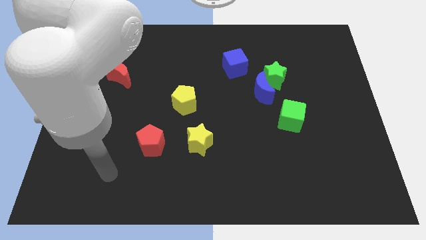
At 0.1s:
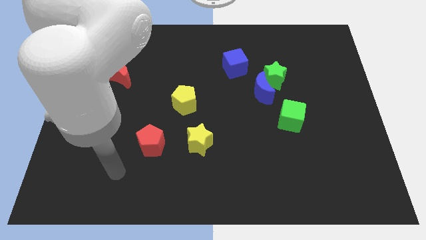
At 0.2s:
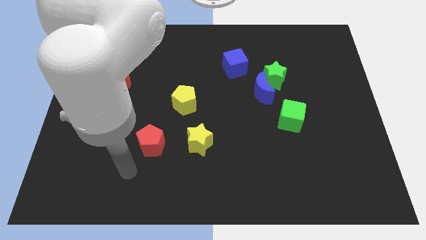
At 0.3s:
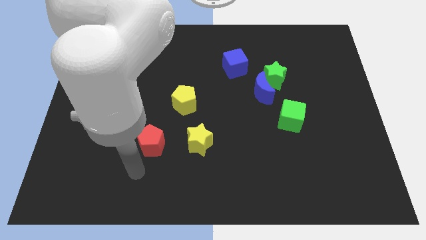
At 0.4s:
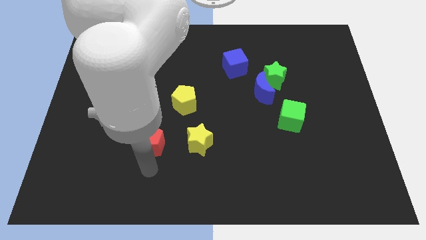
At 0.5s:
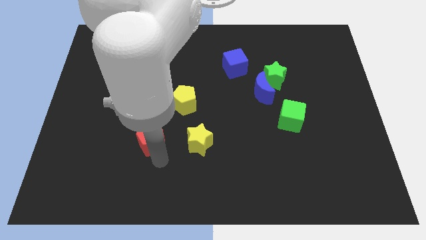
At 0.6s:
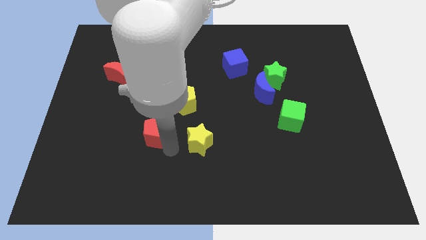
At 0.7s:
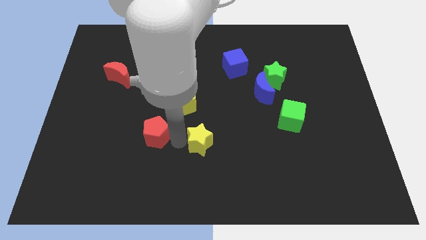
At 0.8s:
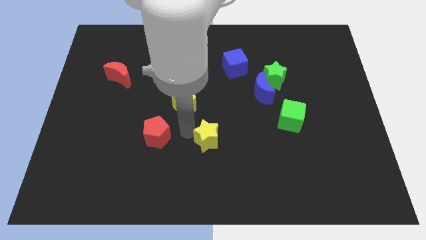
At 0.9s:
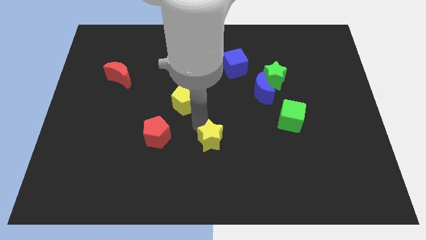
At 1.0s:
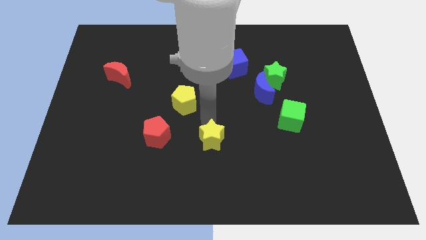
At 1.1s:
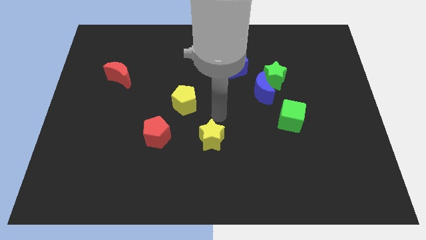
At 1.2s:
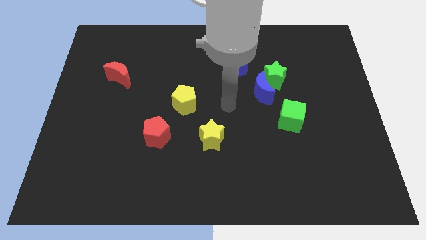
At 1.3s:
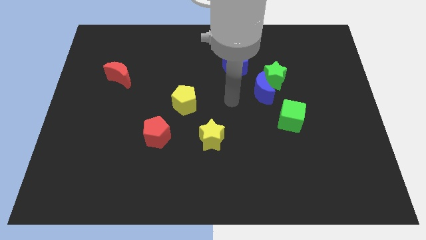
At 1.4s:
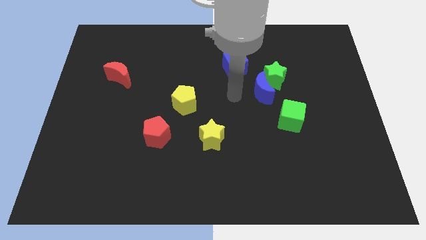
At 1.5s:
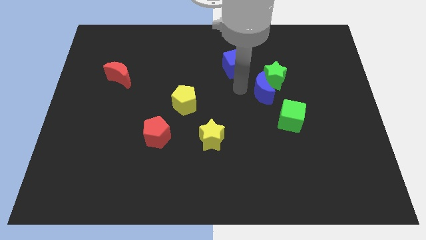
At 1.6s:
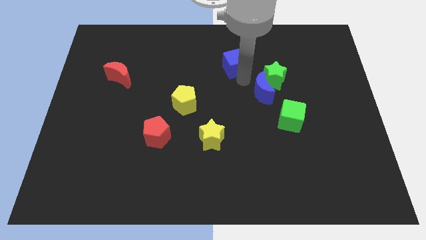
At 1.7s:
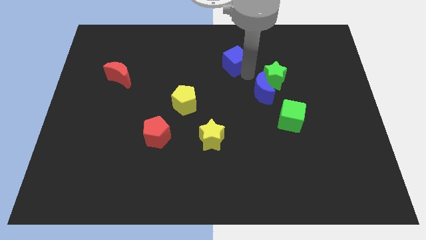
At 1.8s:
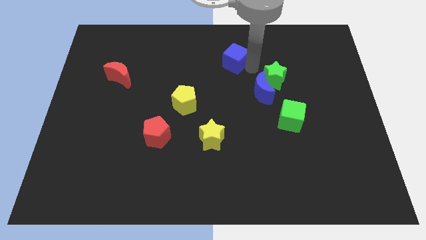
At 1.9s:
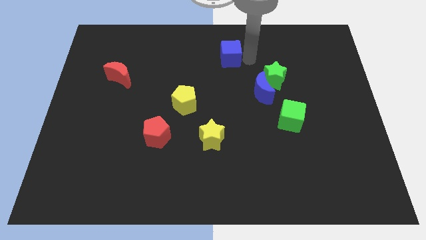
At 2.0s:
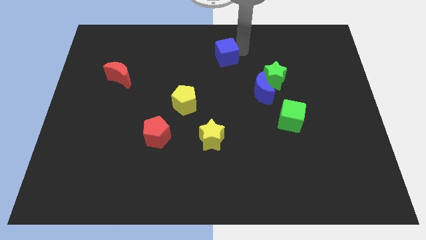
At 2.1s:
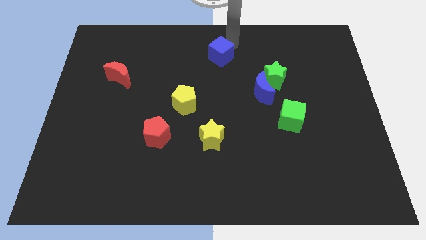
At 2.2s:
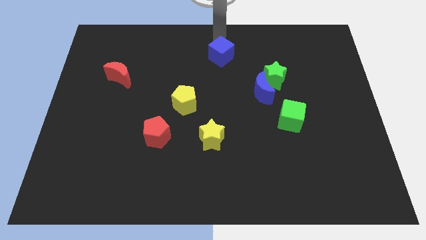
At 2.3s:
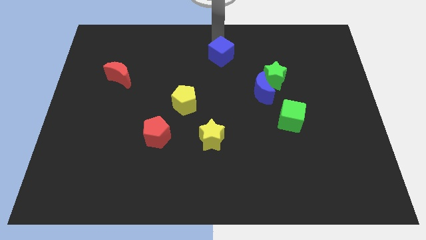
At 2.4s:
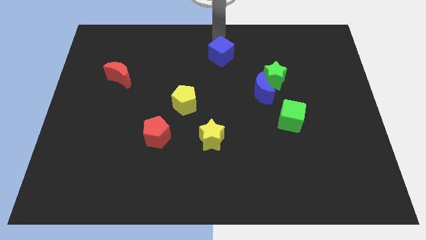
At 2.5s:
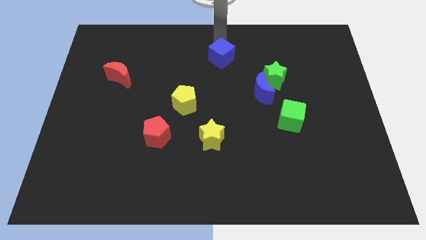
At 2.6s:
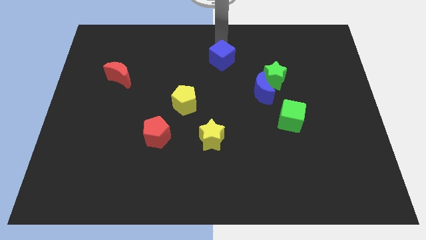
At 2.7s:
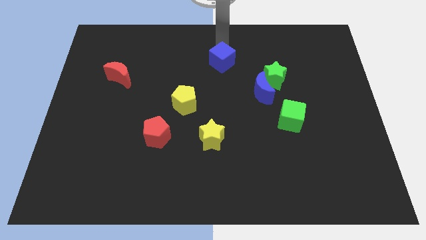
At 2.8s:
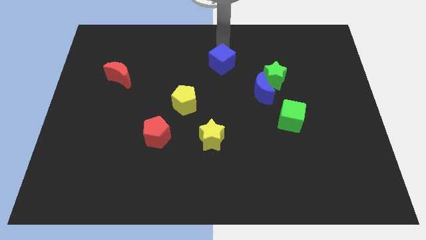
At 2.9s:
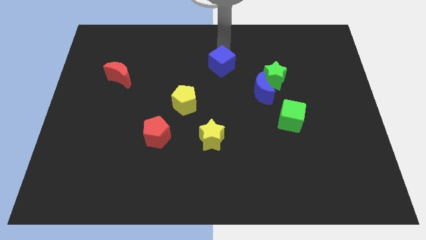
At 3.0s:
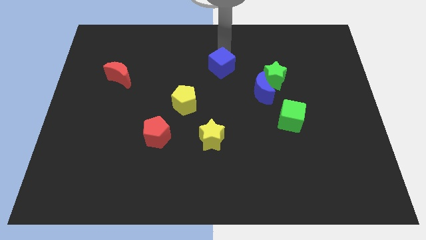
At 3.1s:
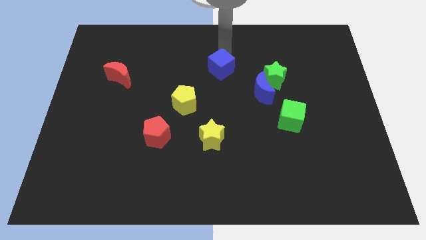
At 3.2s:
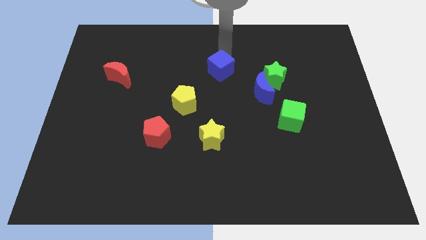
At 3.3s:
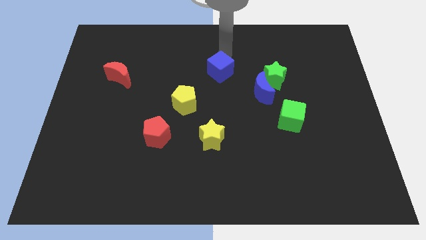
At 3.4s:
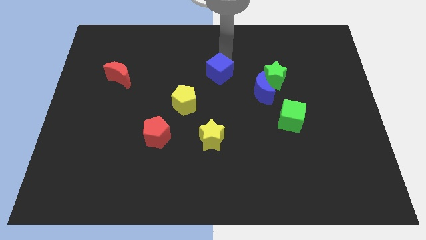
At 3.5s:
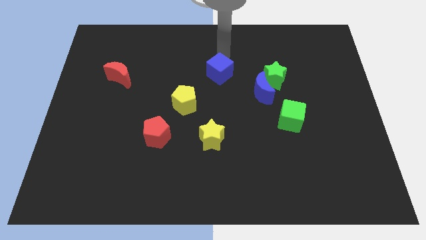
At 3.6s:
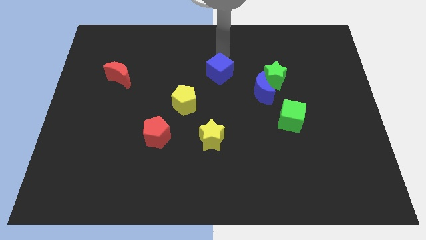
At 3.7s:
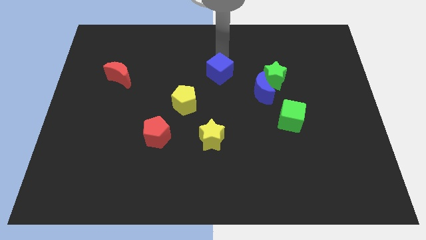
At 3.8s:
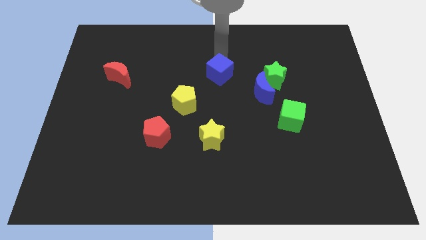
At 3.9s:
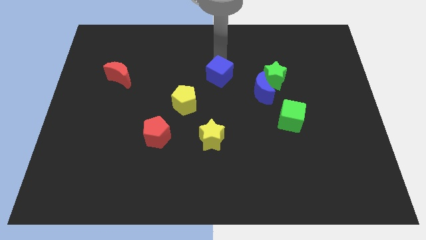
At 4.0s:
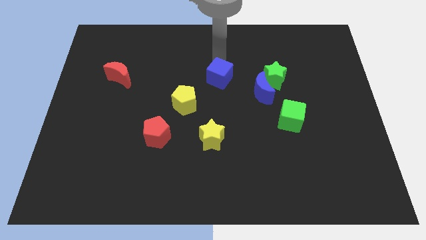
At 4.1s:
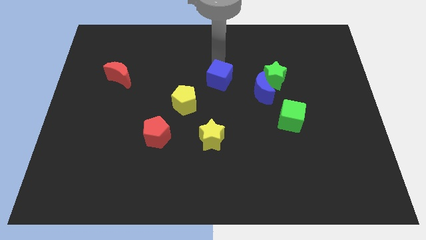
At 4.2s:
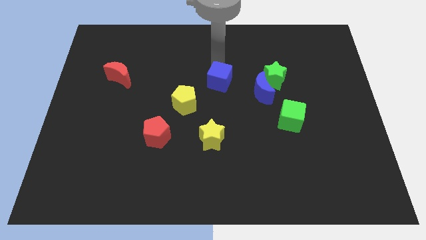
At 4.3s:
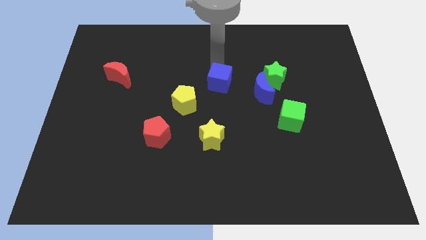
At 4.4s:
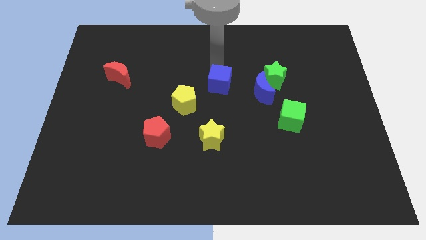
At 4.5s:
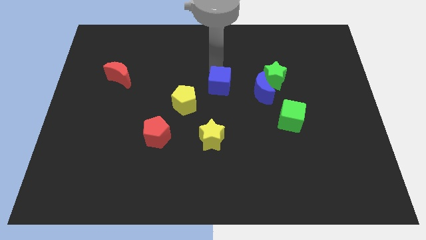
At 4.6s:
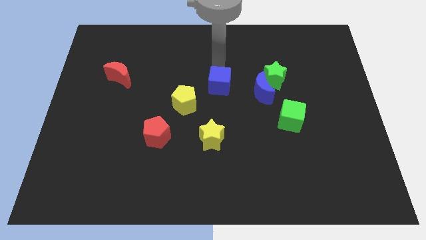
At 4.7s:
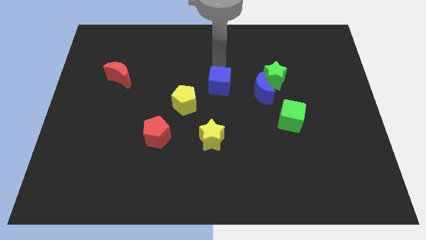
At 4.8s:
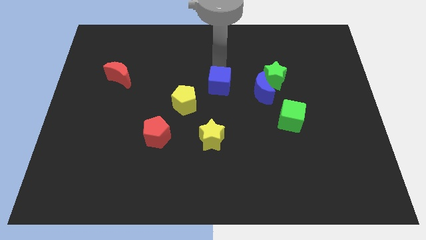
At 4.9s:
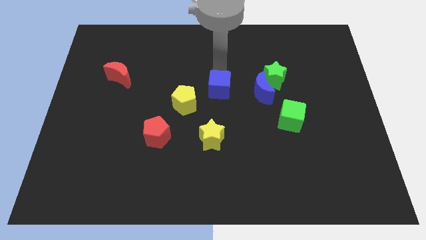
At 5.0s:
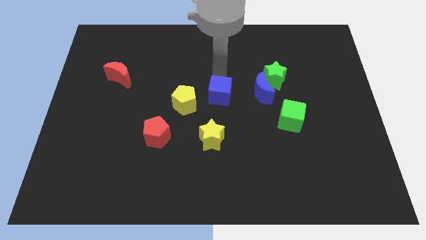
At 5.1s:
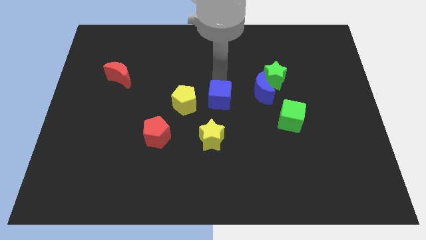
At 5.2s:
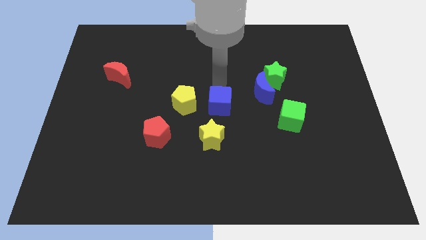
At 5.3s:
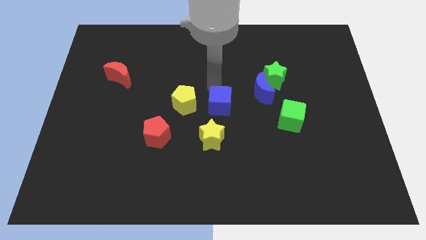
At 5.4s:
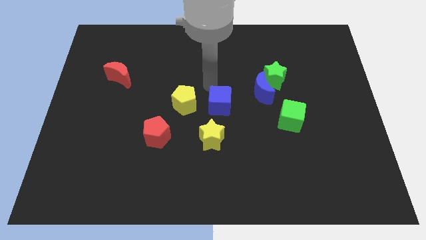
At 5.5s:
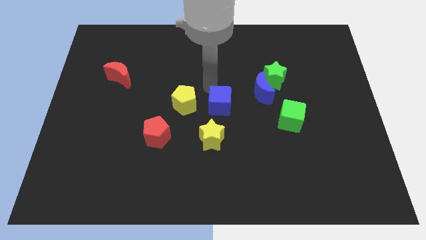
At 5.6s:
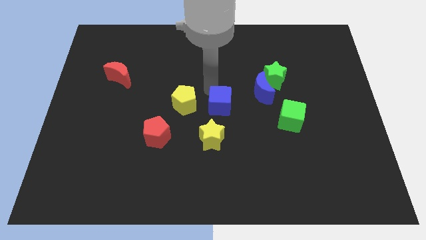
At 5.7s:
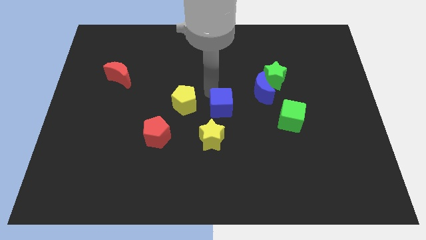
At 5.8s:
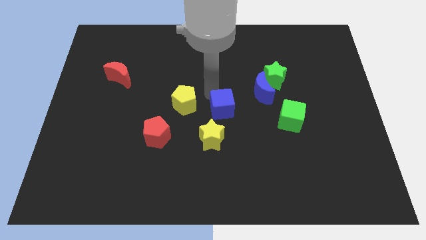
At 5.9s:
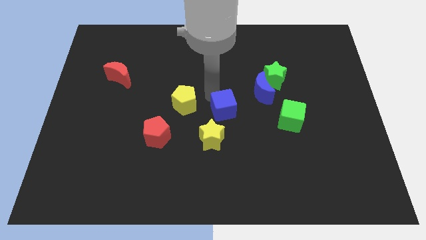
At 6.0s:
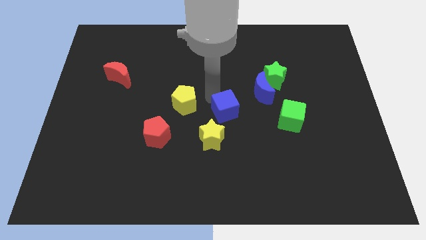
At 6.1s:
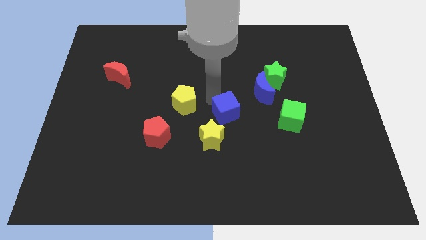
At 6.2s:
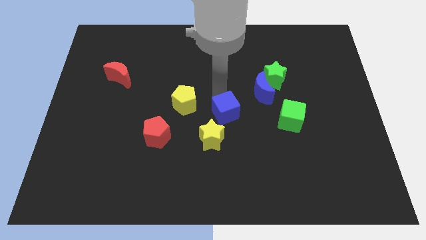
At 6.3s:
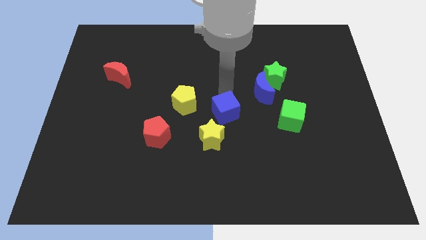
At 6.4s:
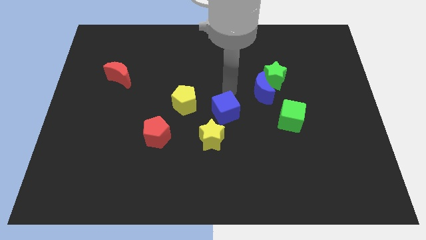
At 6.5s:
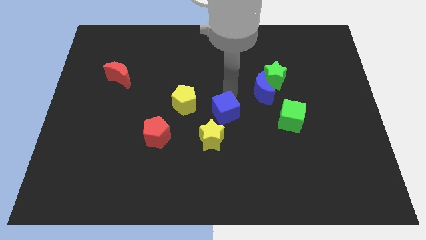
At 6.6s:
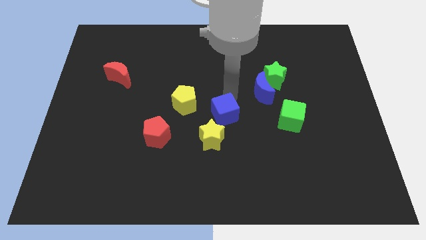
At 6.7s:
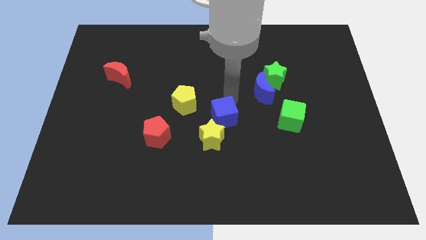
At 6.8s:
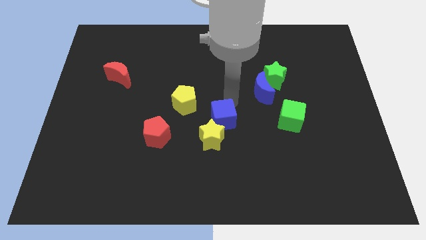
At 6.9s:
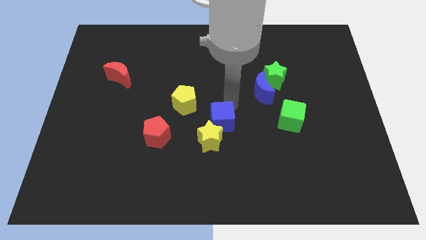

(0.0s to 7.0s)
put the blue cube to the right of the red pentagon
